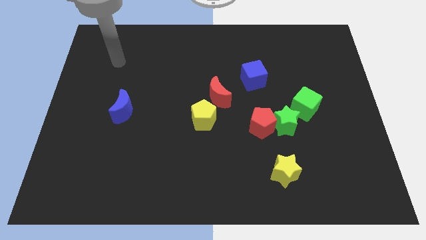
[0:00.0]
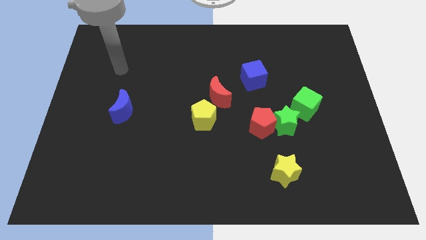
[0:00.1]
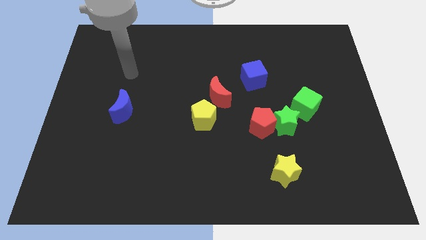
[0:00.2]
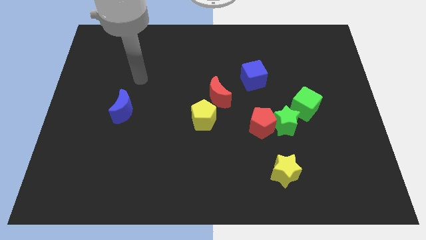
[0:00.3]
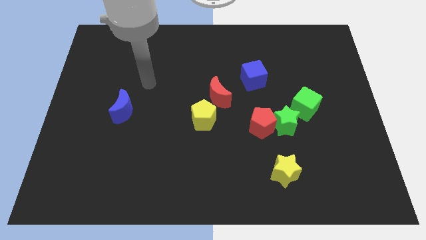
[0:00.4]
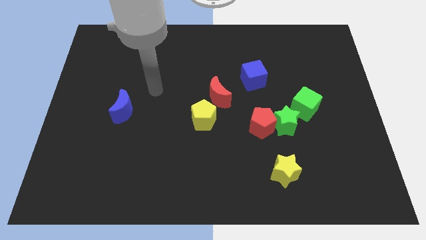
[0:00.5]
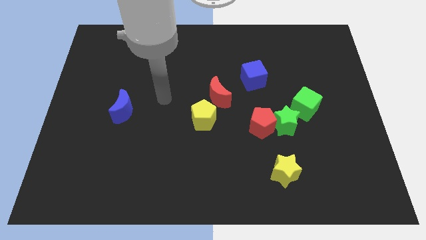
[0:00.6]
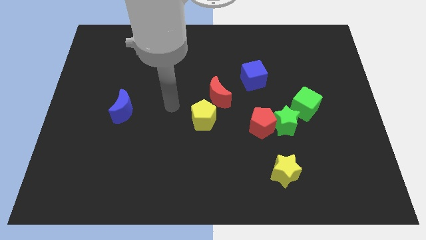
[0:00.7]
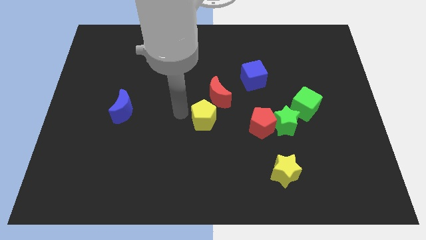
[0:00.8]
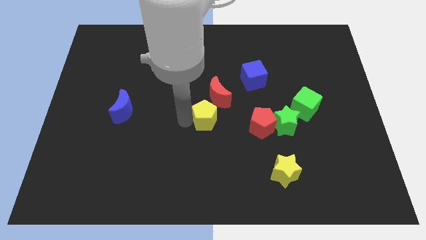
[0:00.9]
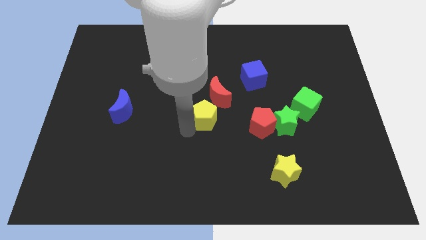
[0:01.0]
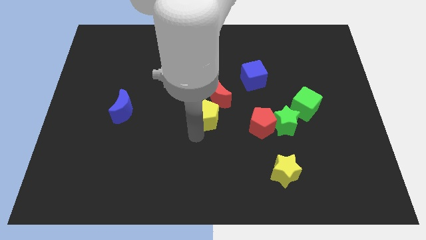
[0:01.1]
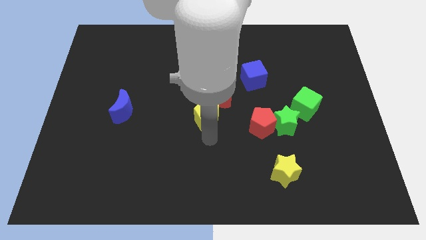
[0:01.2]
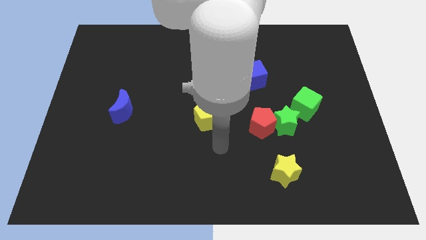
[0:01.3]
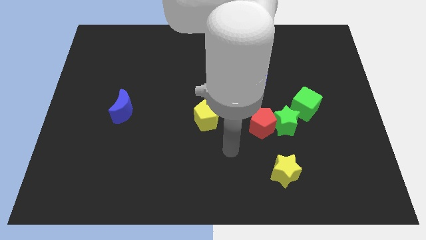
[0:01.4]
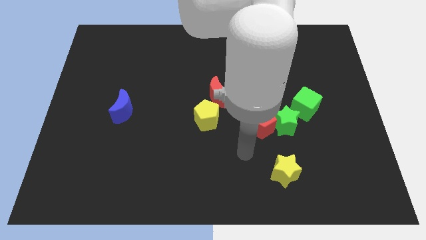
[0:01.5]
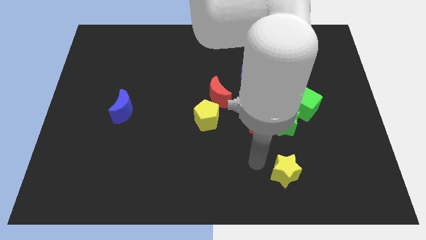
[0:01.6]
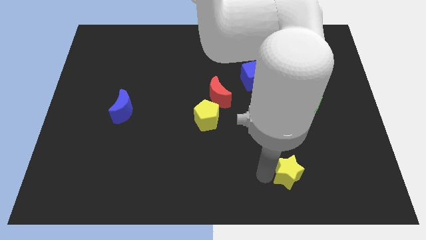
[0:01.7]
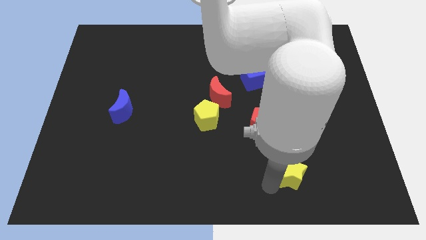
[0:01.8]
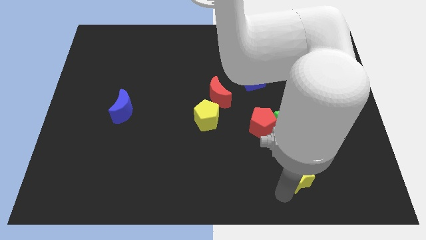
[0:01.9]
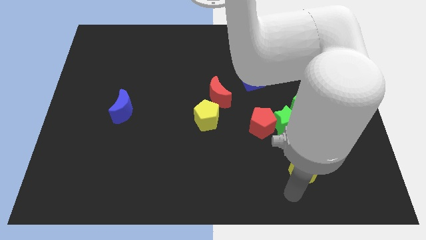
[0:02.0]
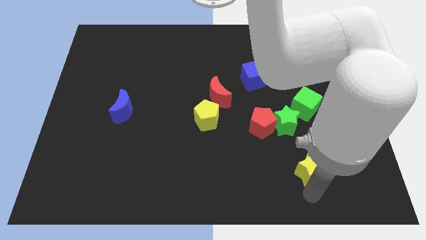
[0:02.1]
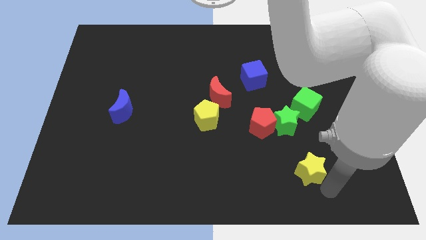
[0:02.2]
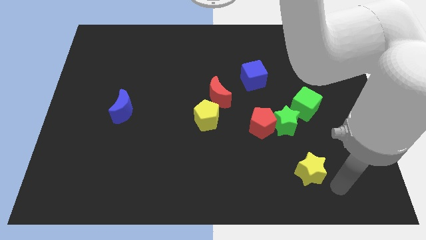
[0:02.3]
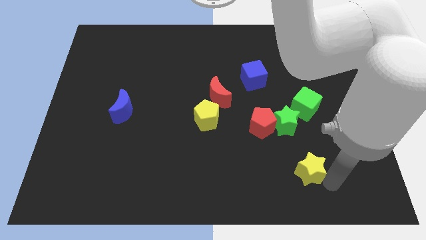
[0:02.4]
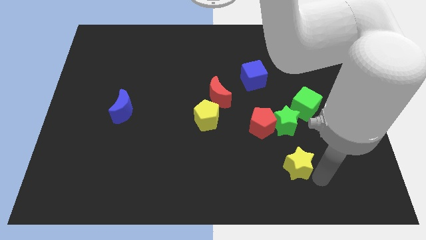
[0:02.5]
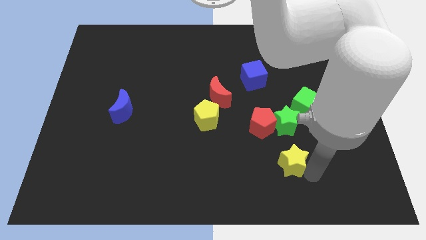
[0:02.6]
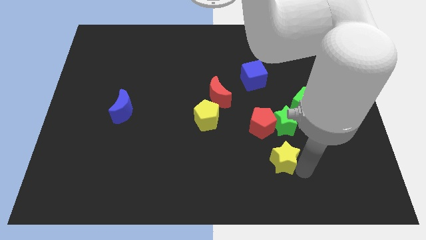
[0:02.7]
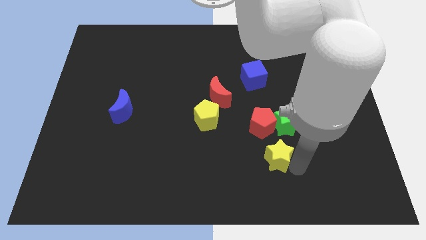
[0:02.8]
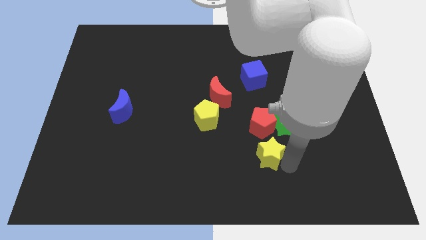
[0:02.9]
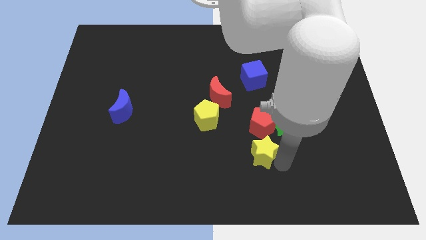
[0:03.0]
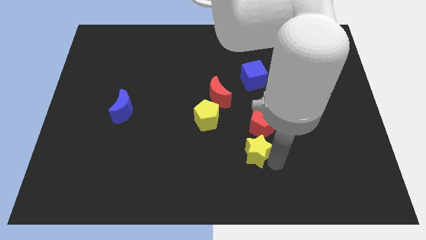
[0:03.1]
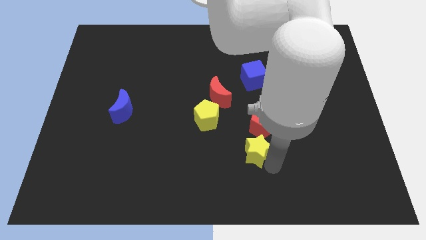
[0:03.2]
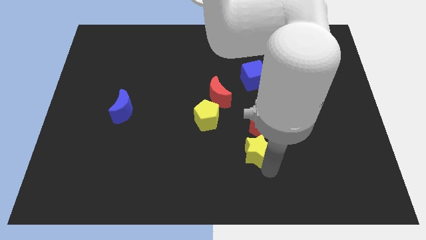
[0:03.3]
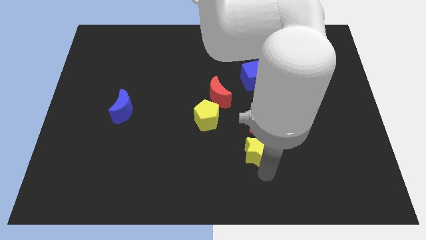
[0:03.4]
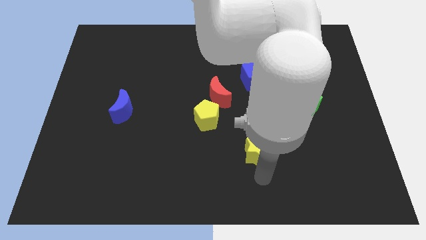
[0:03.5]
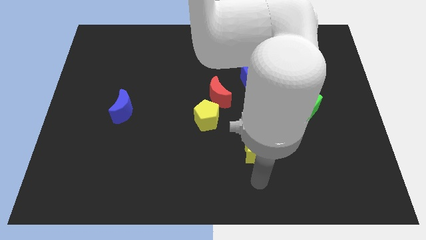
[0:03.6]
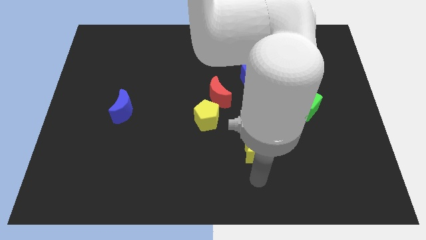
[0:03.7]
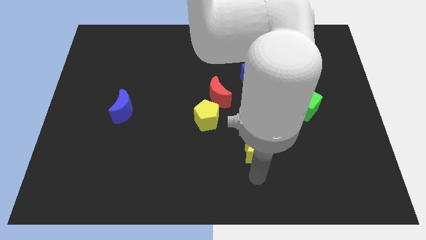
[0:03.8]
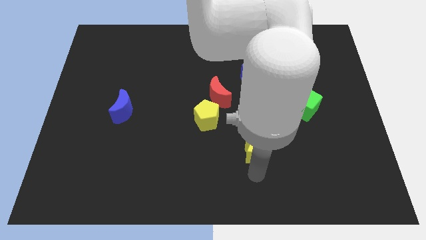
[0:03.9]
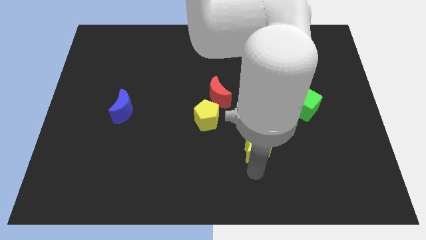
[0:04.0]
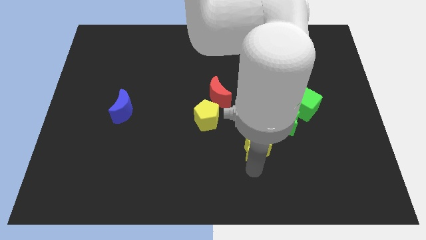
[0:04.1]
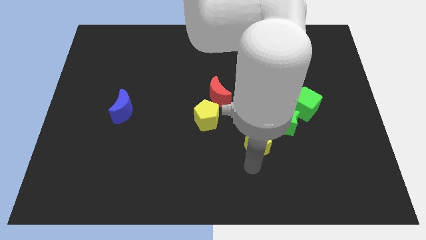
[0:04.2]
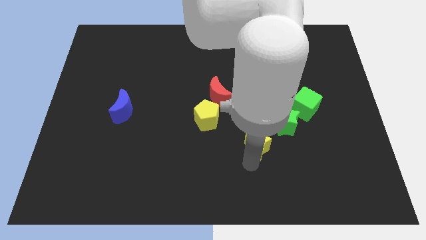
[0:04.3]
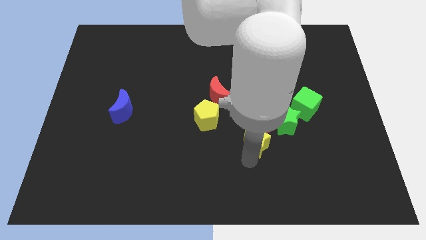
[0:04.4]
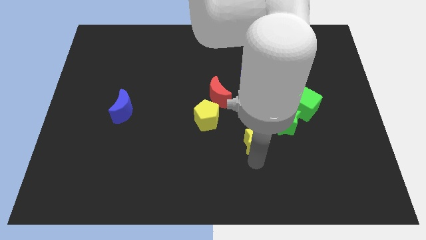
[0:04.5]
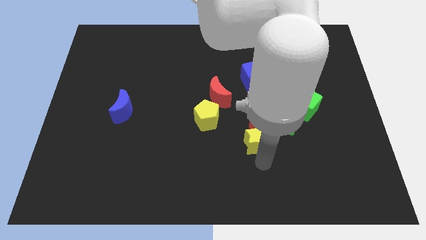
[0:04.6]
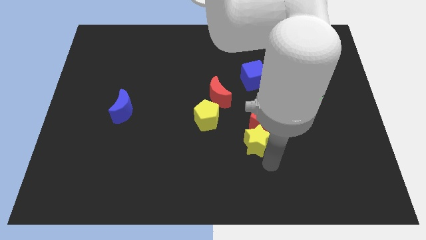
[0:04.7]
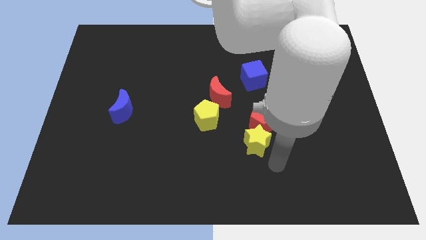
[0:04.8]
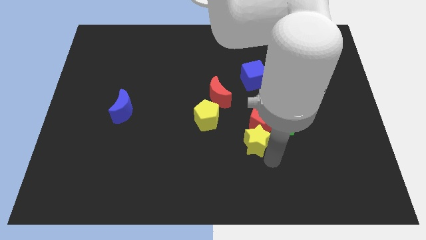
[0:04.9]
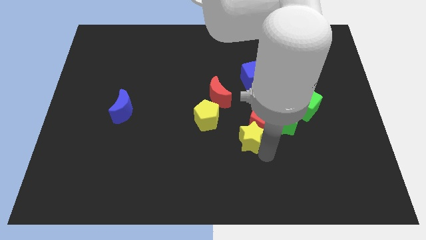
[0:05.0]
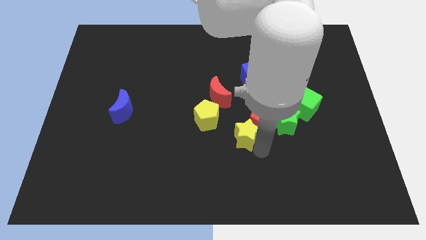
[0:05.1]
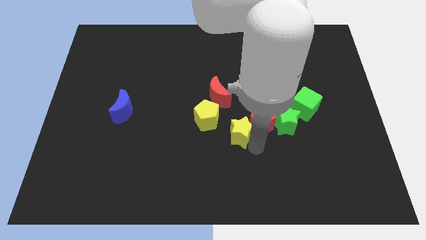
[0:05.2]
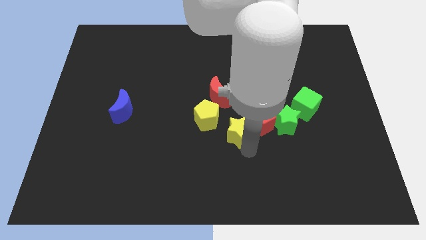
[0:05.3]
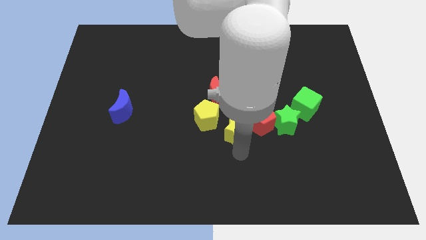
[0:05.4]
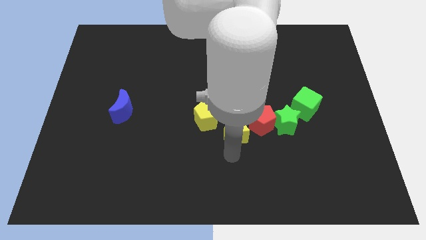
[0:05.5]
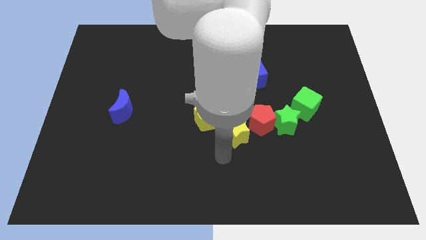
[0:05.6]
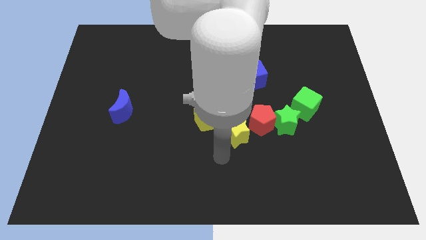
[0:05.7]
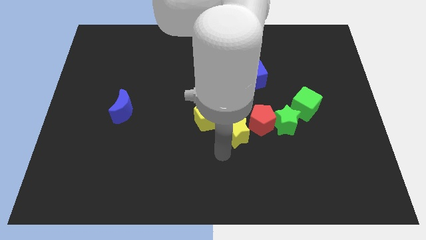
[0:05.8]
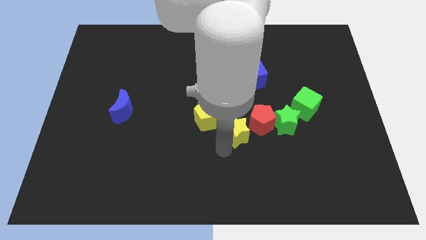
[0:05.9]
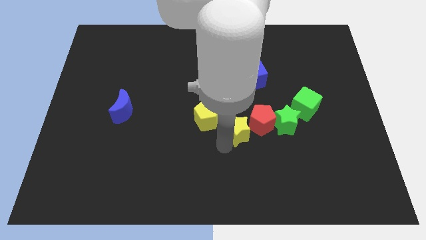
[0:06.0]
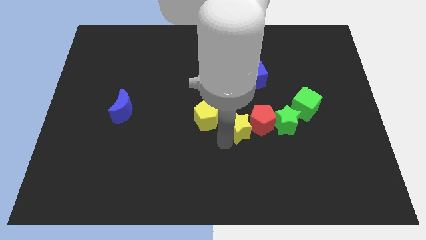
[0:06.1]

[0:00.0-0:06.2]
push the yellow star upwards a little bit

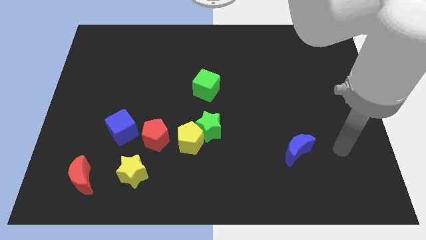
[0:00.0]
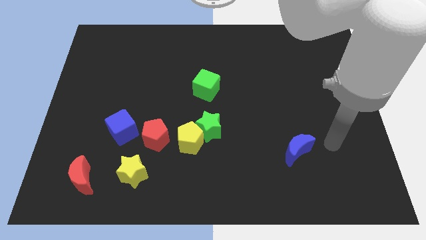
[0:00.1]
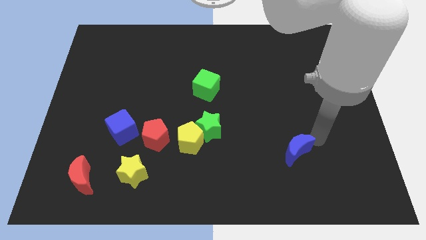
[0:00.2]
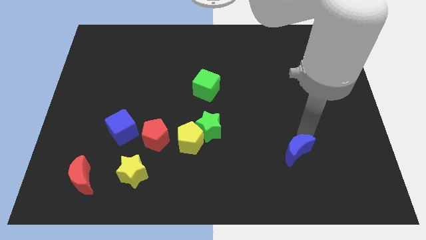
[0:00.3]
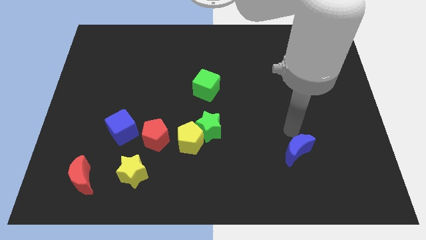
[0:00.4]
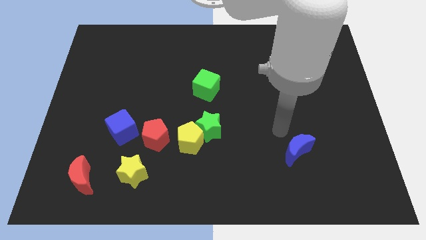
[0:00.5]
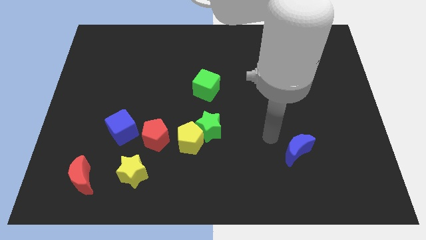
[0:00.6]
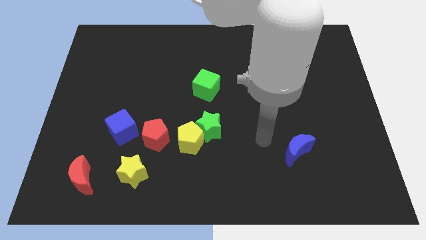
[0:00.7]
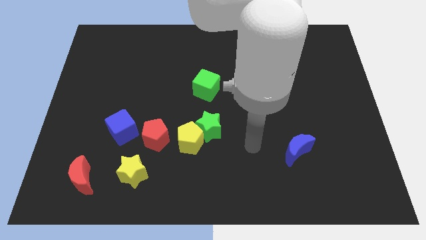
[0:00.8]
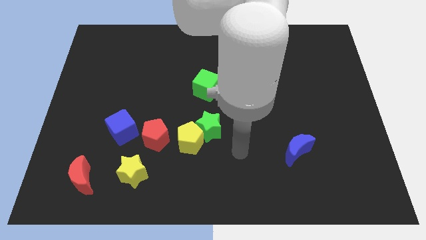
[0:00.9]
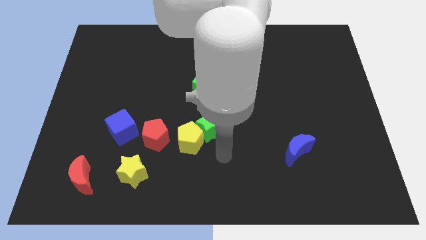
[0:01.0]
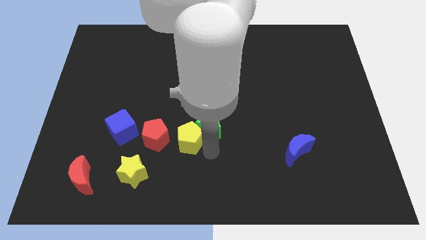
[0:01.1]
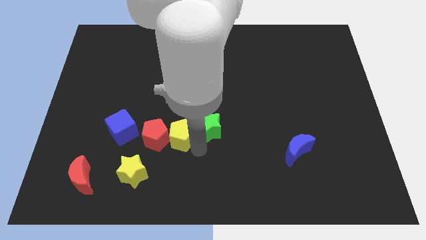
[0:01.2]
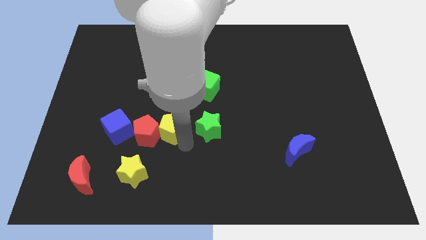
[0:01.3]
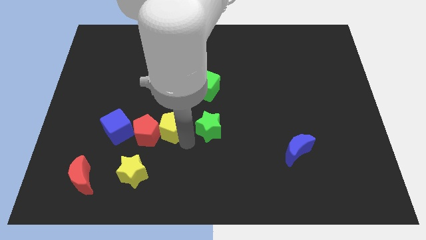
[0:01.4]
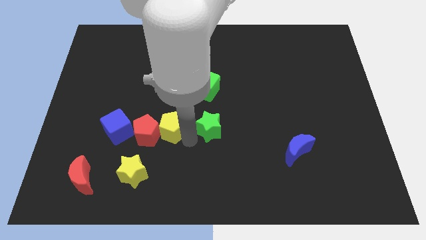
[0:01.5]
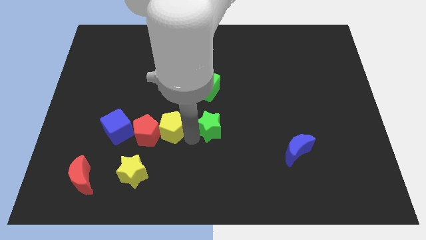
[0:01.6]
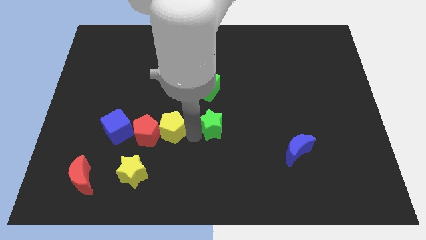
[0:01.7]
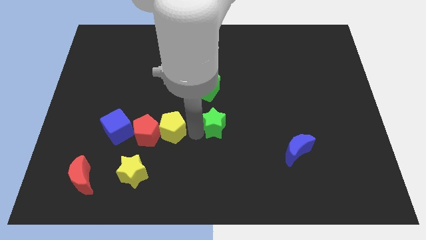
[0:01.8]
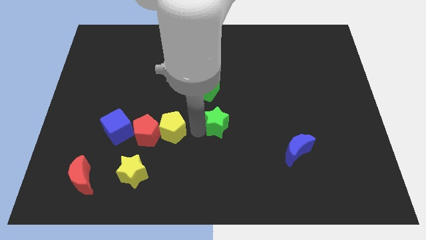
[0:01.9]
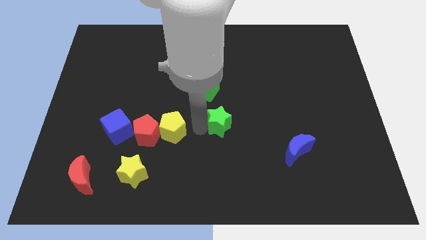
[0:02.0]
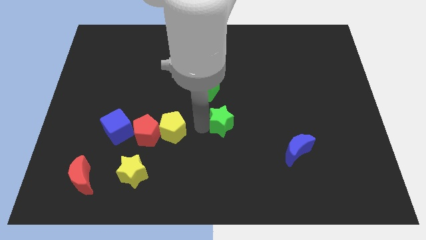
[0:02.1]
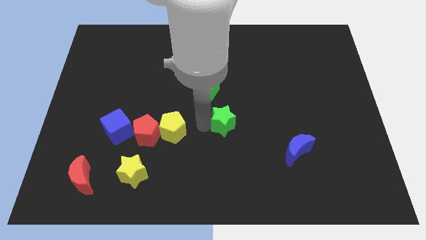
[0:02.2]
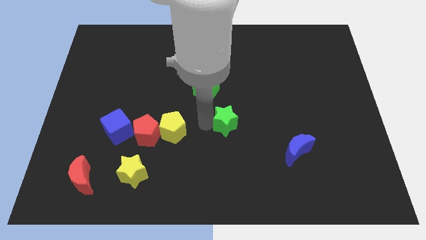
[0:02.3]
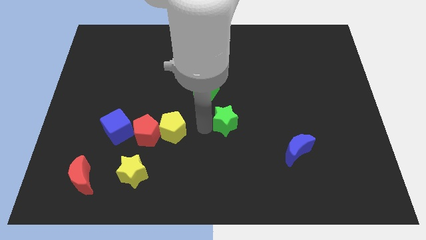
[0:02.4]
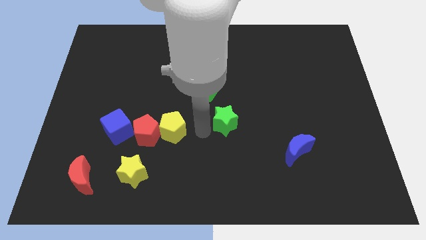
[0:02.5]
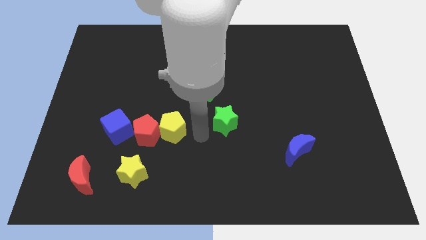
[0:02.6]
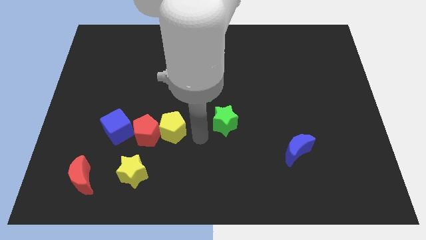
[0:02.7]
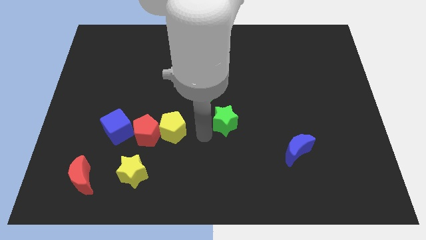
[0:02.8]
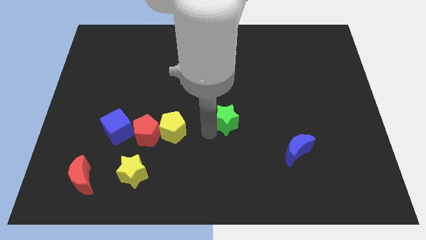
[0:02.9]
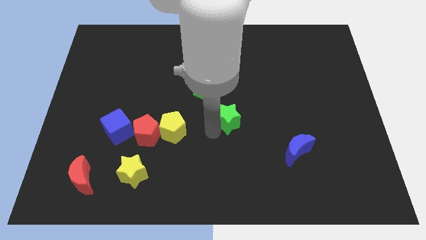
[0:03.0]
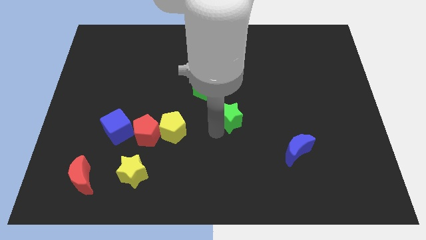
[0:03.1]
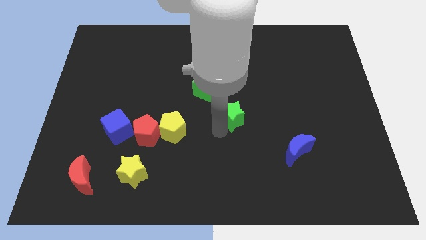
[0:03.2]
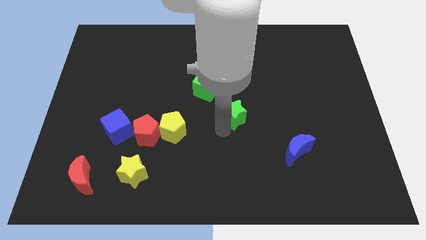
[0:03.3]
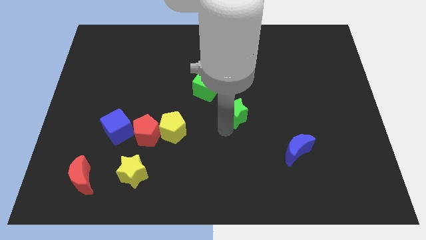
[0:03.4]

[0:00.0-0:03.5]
move the green star up and then right a little bit
